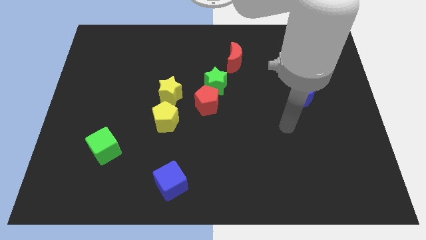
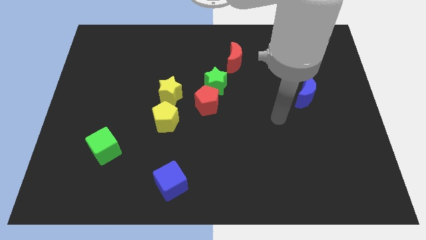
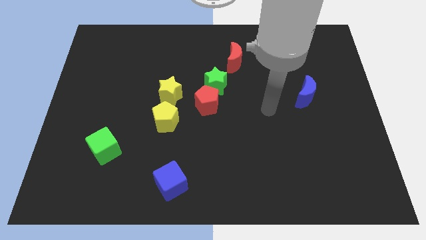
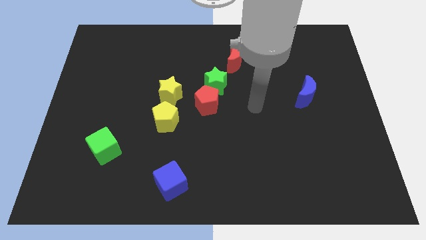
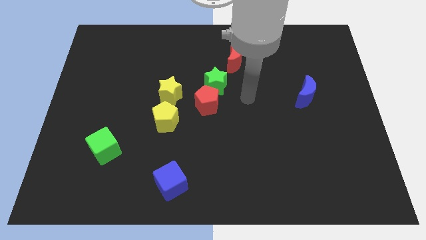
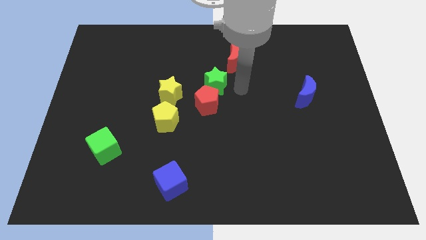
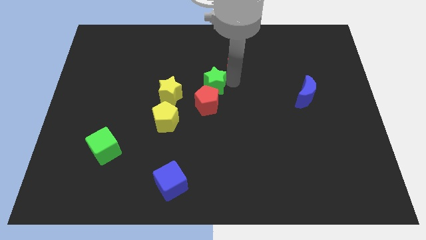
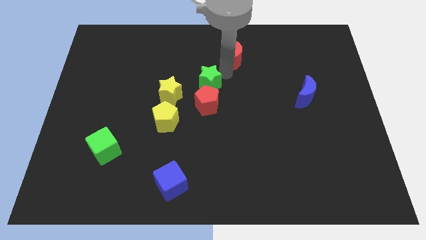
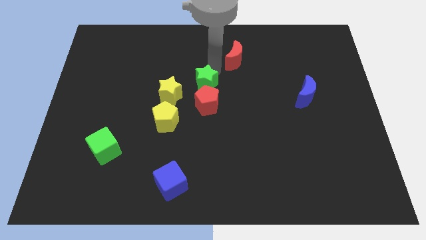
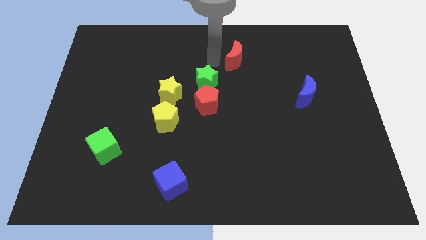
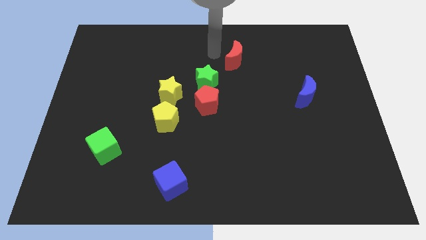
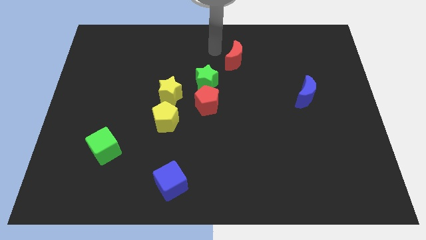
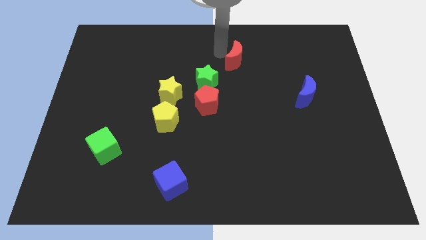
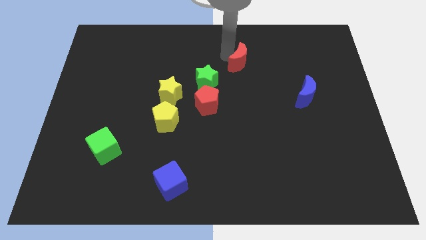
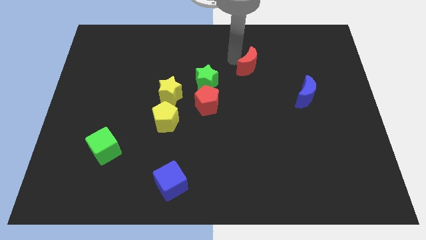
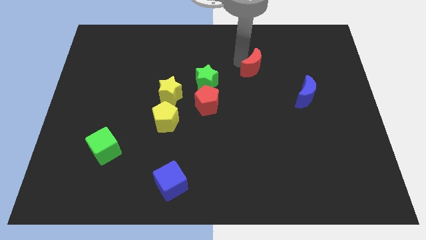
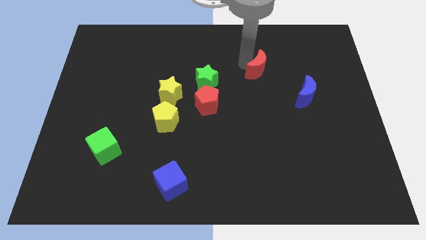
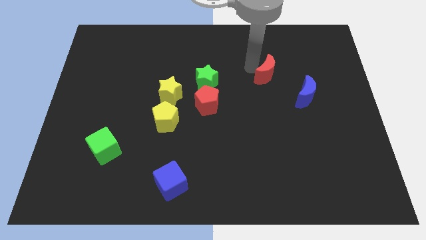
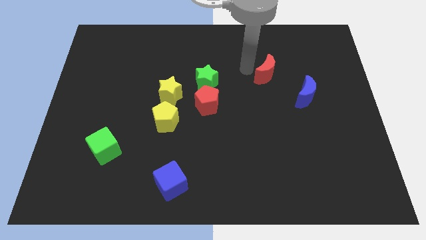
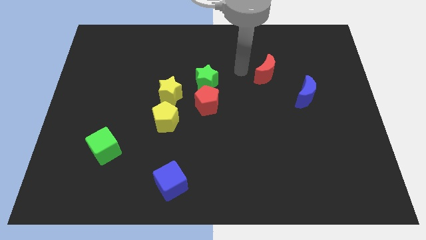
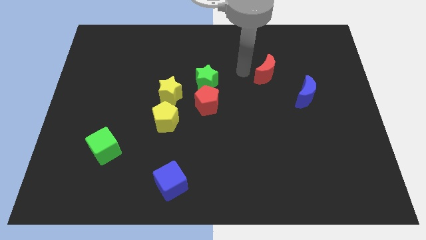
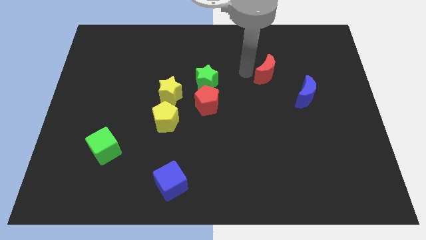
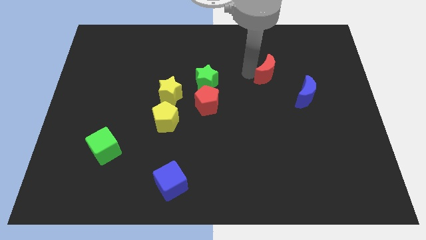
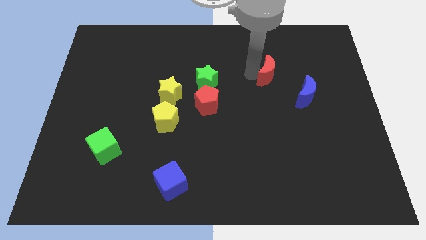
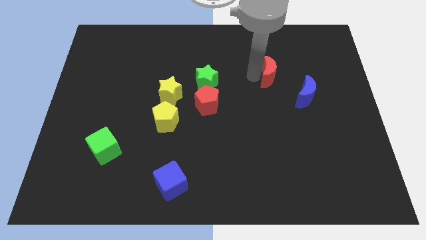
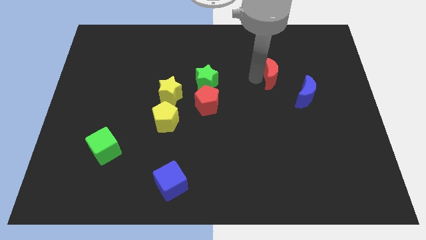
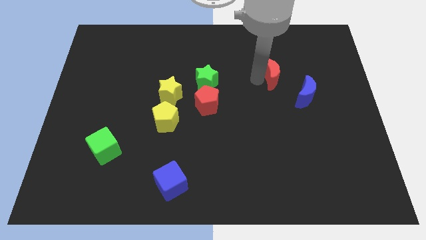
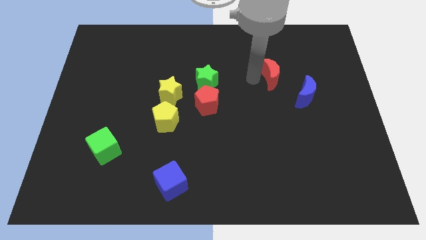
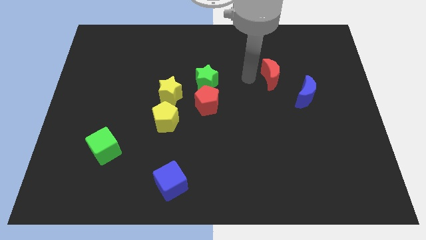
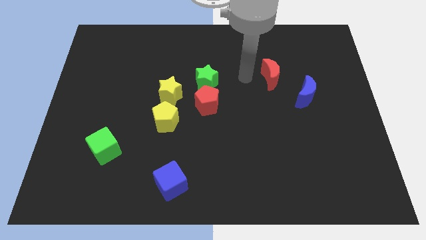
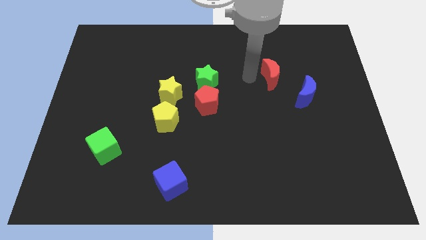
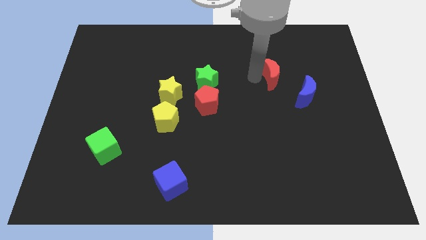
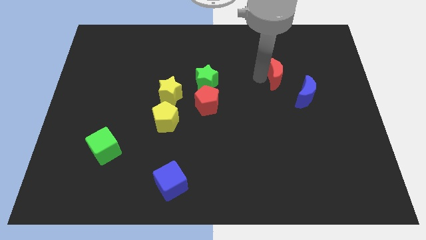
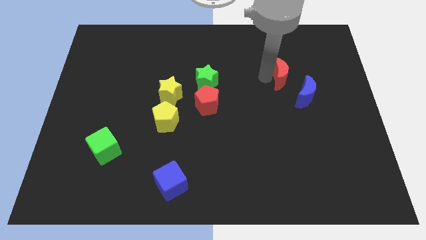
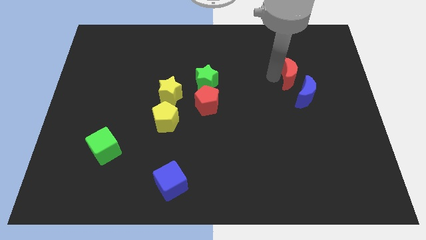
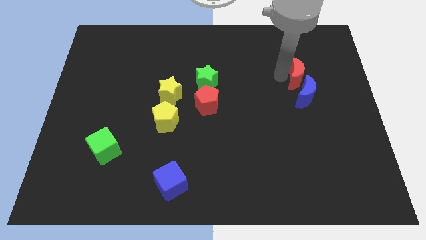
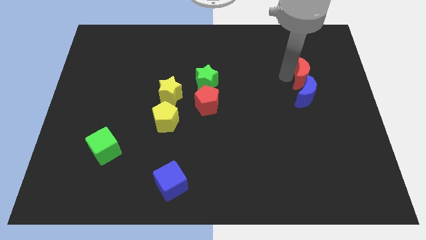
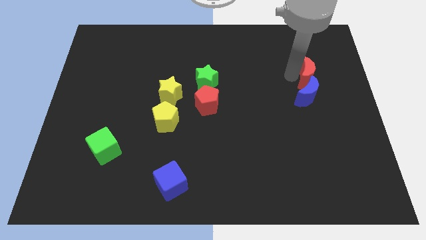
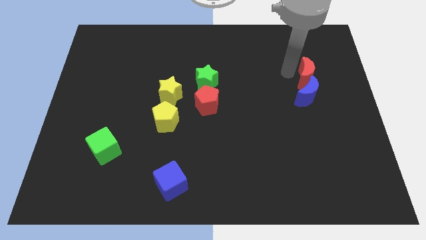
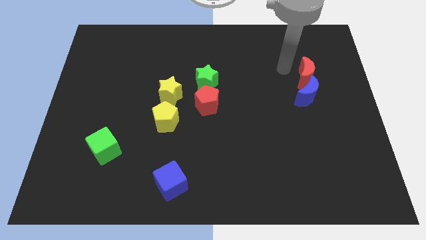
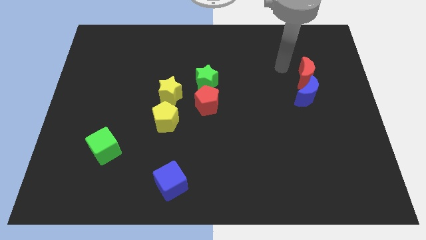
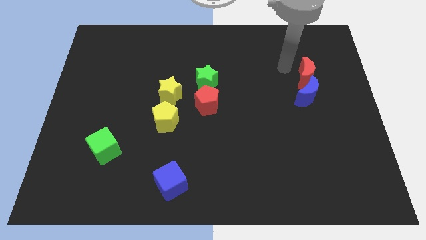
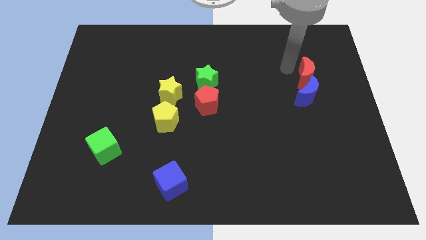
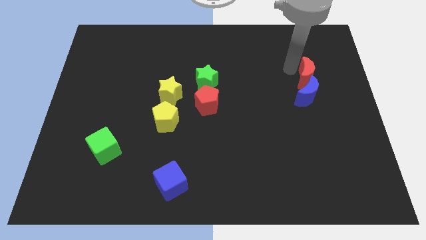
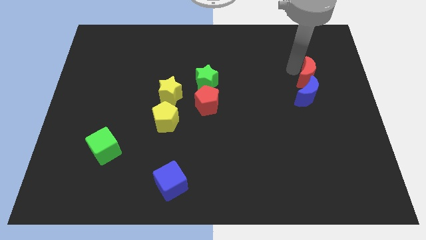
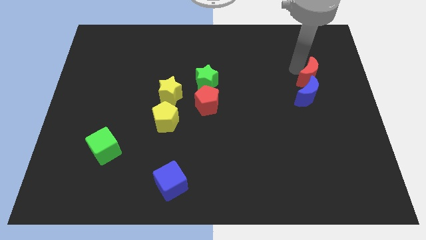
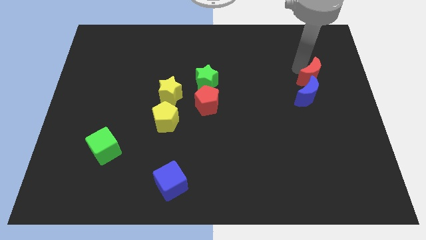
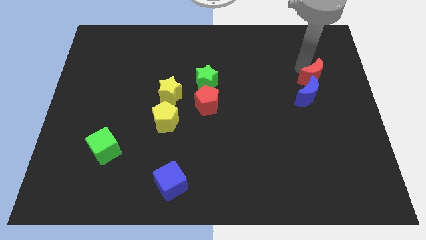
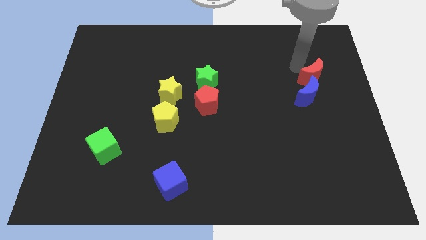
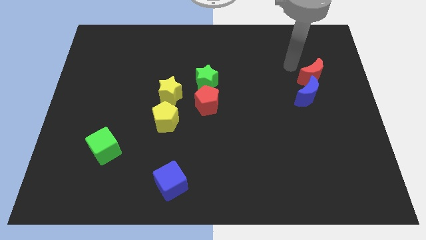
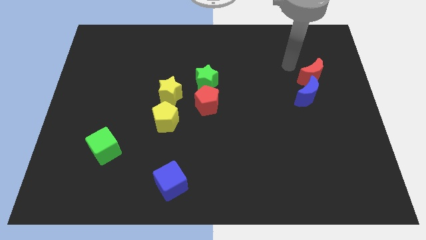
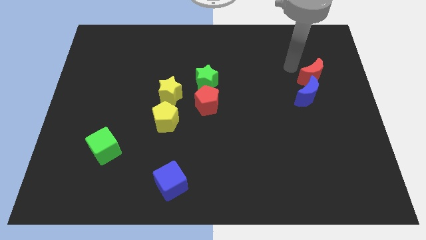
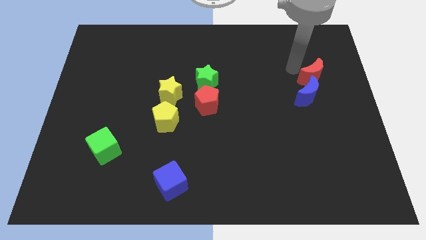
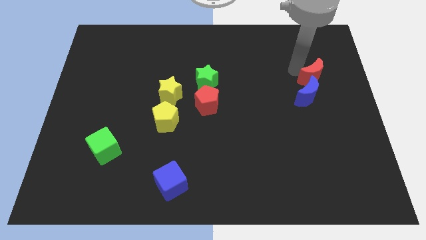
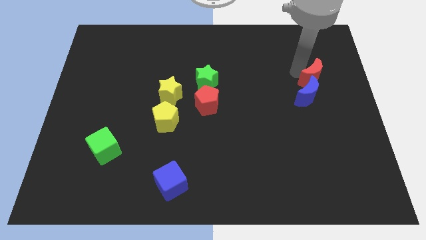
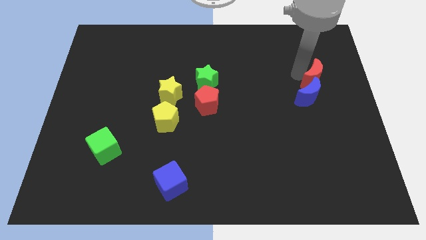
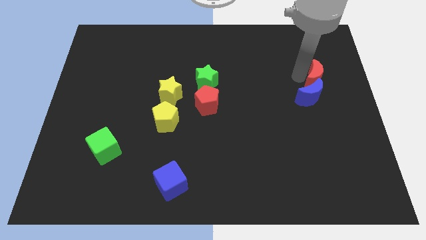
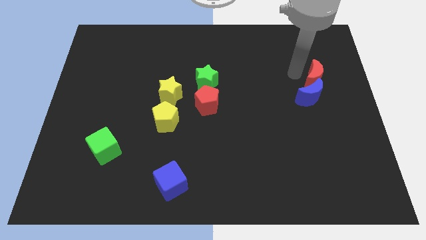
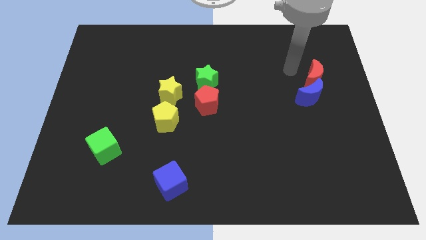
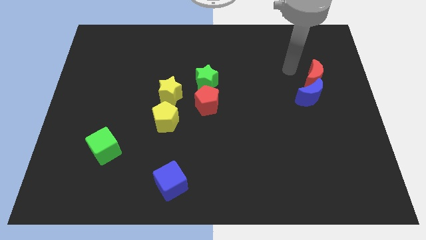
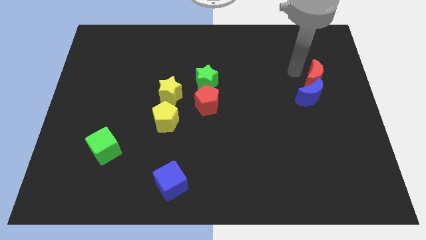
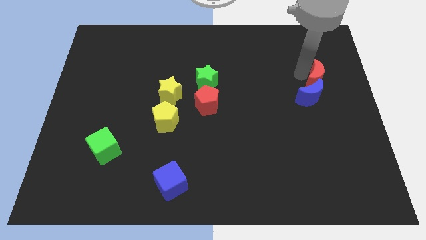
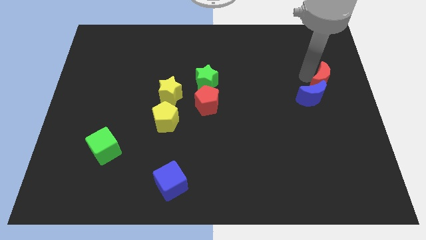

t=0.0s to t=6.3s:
move the red moon to the right side of the board
